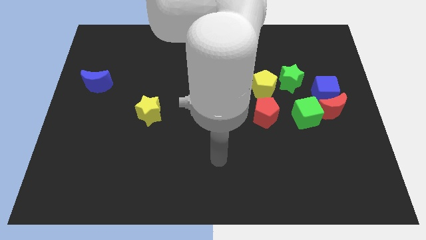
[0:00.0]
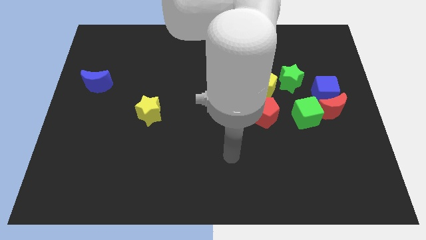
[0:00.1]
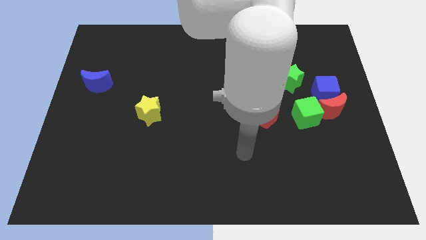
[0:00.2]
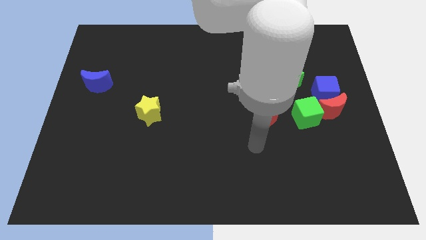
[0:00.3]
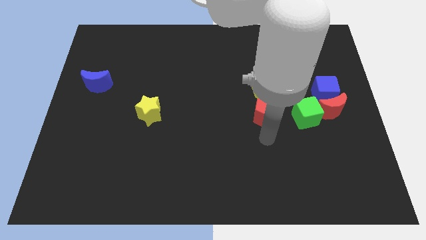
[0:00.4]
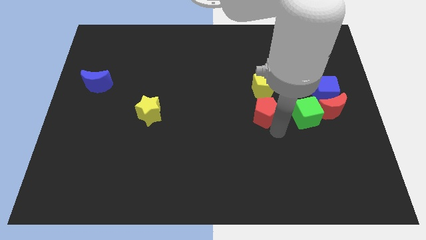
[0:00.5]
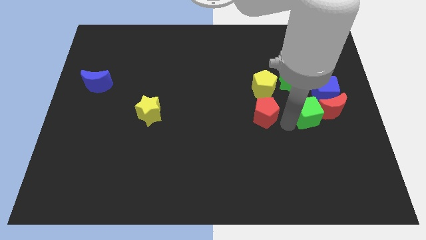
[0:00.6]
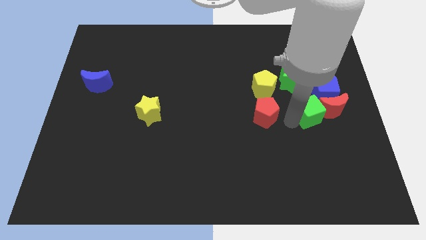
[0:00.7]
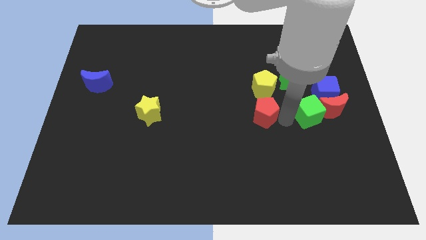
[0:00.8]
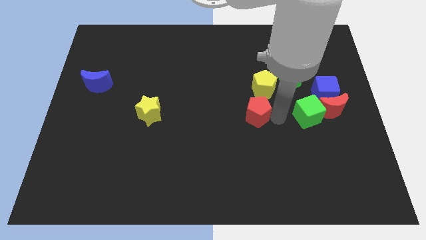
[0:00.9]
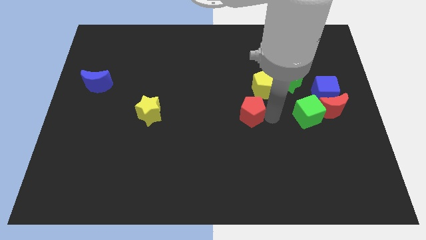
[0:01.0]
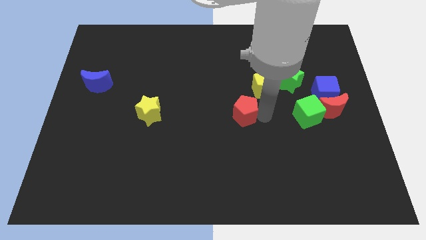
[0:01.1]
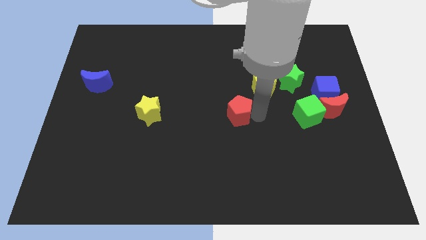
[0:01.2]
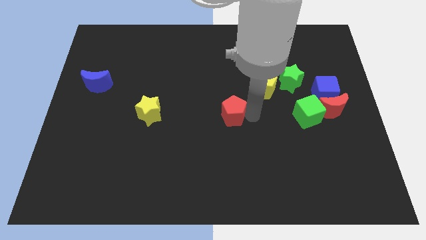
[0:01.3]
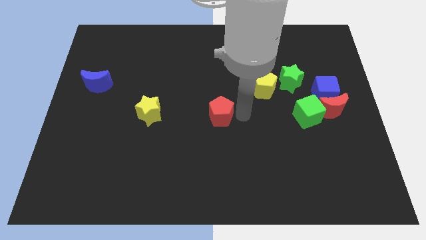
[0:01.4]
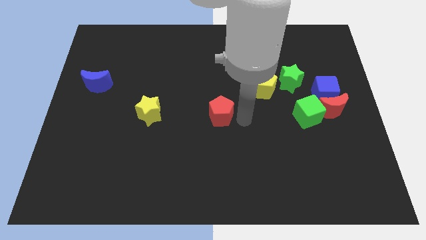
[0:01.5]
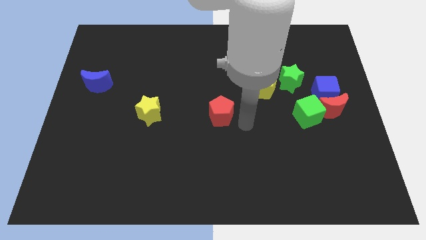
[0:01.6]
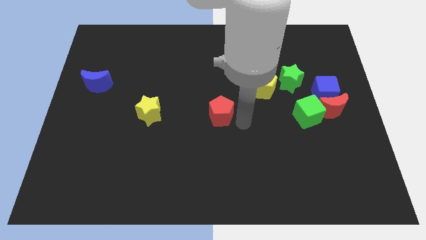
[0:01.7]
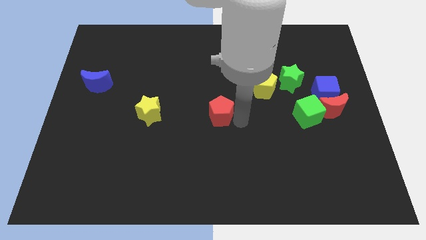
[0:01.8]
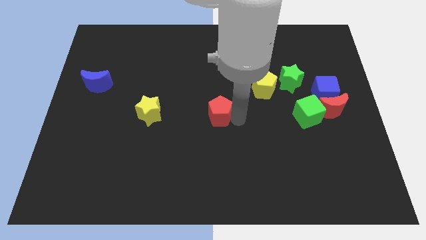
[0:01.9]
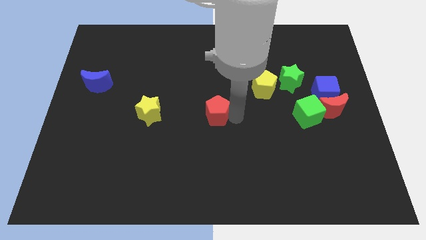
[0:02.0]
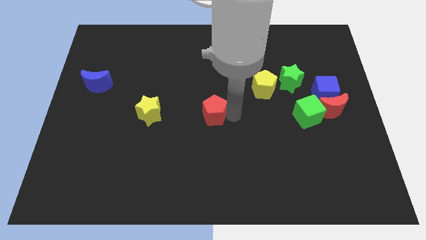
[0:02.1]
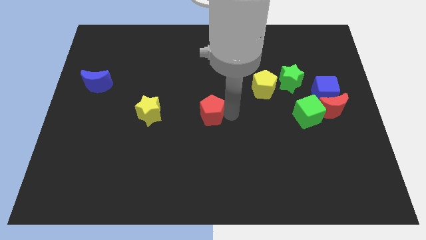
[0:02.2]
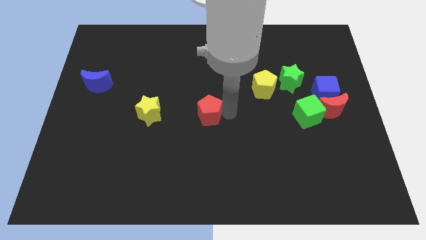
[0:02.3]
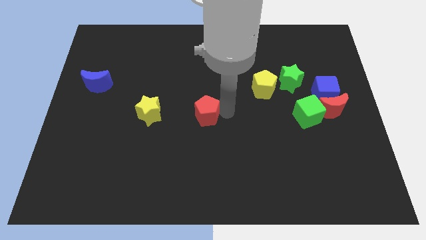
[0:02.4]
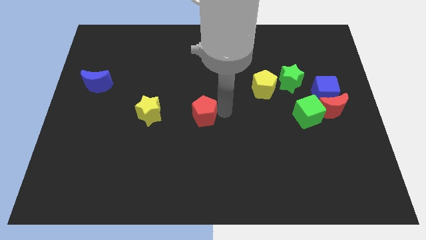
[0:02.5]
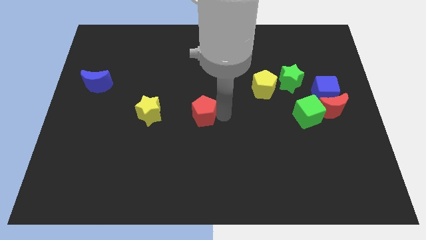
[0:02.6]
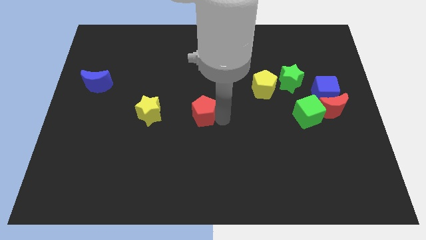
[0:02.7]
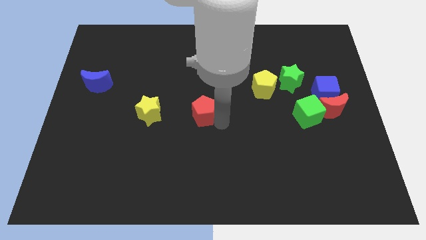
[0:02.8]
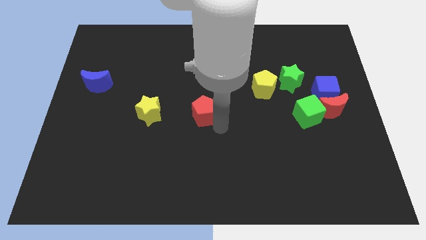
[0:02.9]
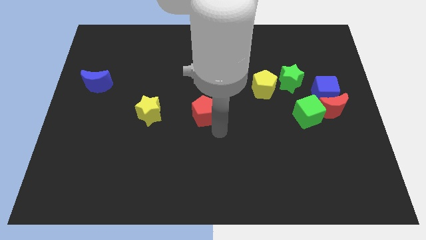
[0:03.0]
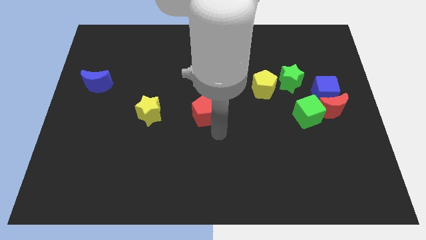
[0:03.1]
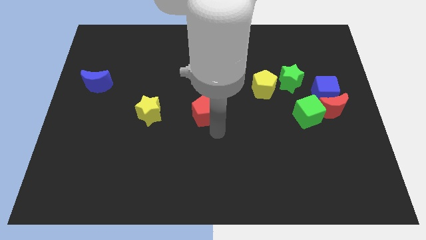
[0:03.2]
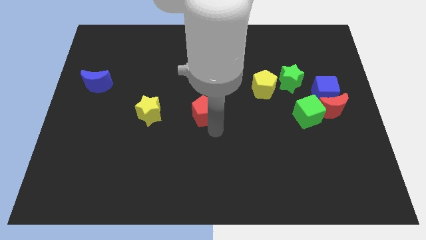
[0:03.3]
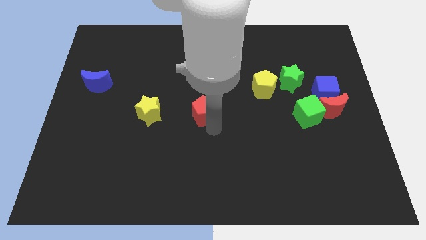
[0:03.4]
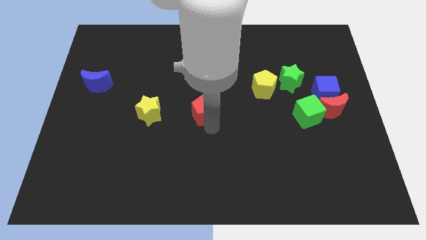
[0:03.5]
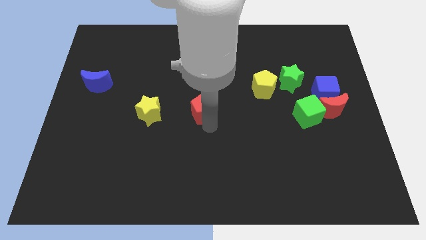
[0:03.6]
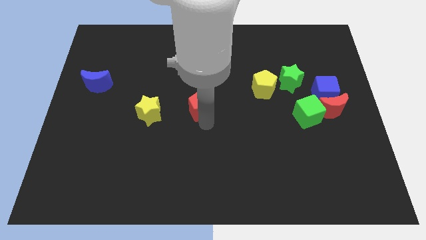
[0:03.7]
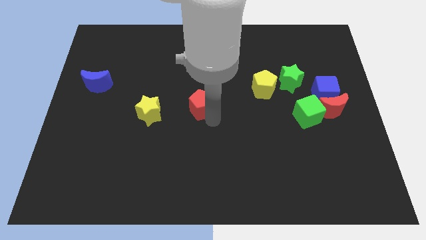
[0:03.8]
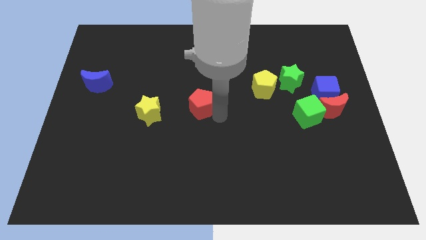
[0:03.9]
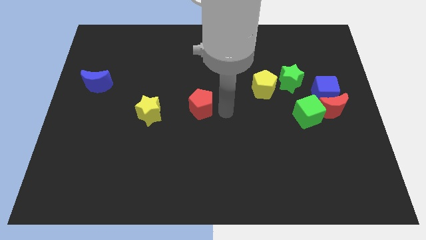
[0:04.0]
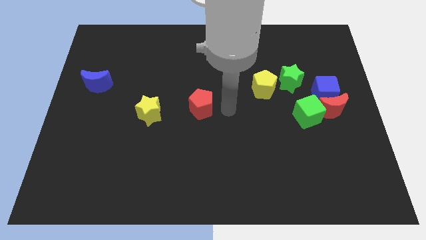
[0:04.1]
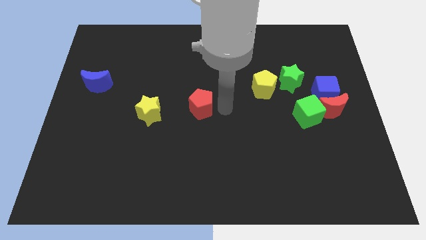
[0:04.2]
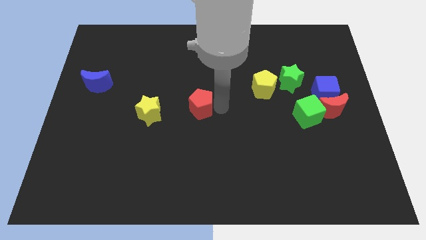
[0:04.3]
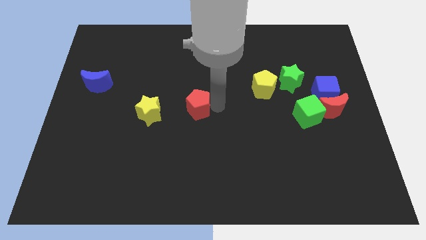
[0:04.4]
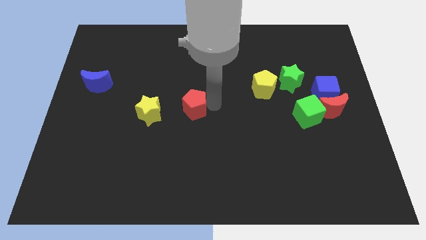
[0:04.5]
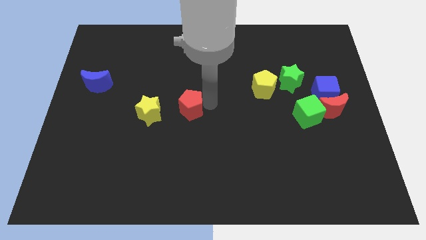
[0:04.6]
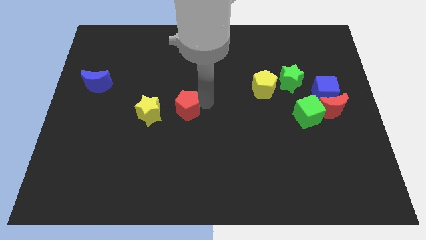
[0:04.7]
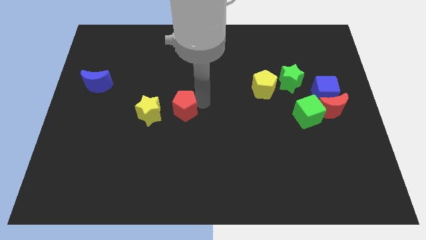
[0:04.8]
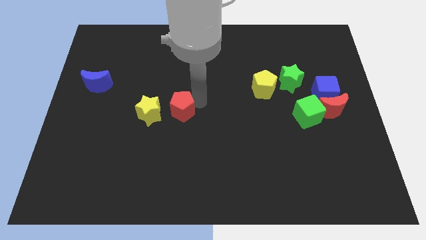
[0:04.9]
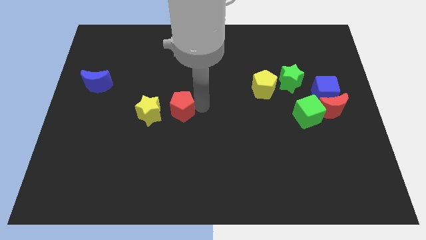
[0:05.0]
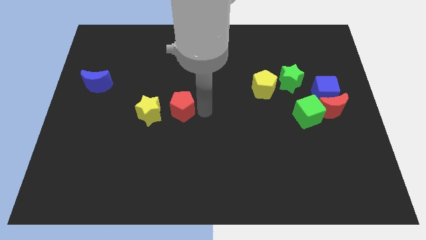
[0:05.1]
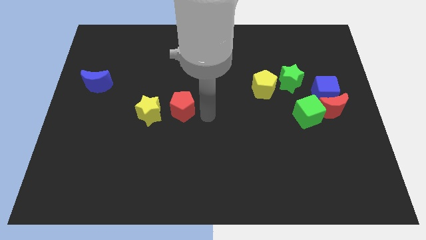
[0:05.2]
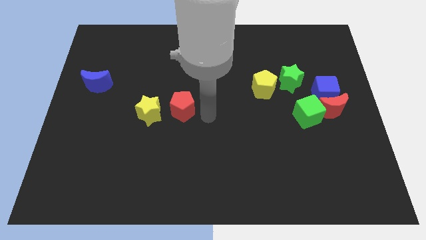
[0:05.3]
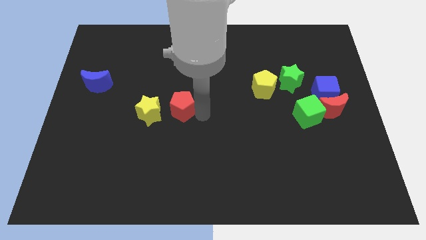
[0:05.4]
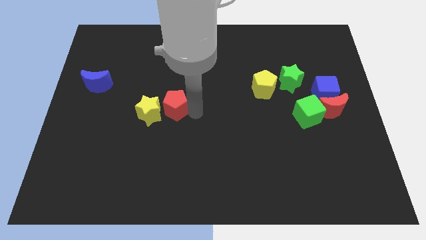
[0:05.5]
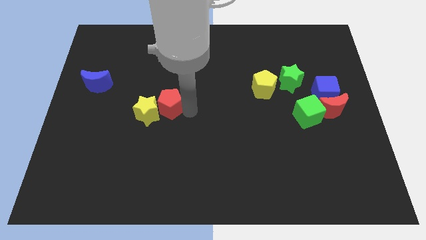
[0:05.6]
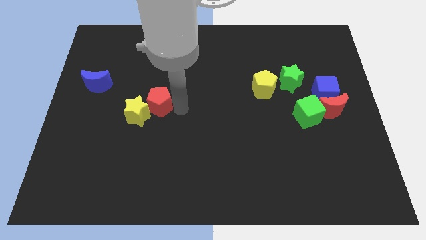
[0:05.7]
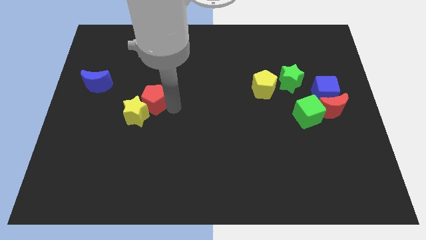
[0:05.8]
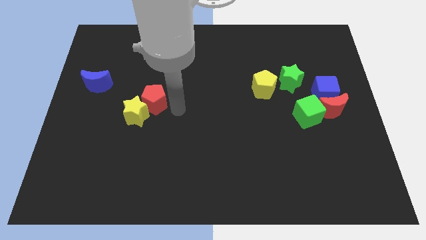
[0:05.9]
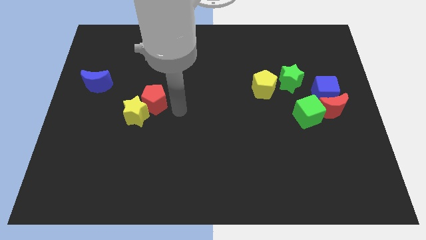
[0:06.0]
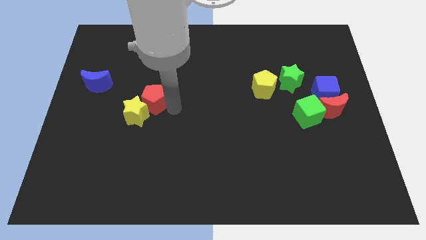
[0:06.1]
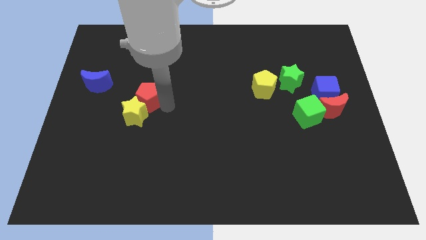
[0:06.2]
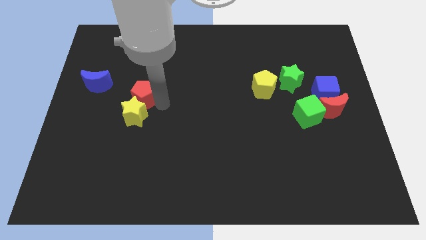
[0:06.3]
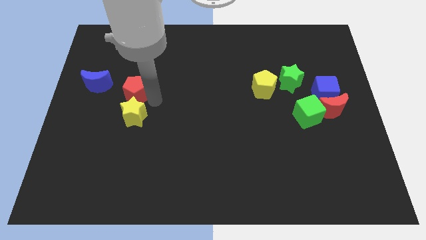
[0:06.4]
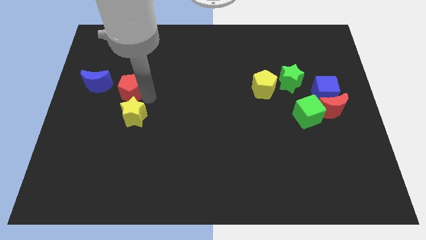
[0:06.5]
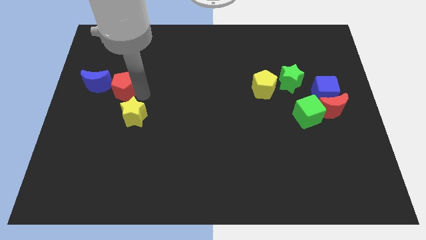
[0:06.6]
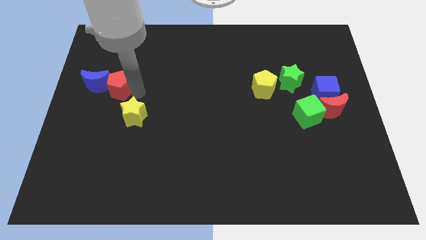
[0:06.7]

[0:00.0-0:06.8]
push the red pentagon next to the blue moon
